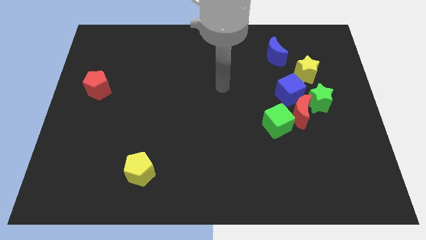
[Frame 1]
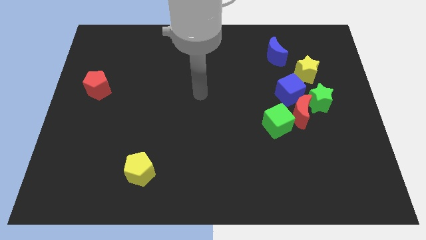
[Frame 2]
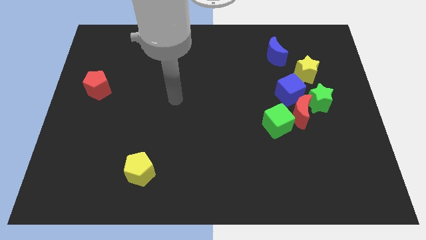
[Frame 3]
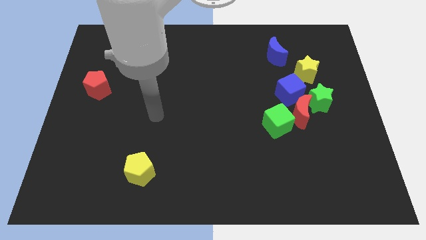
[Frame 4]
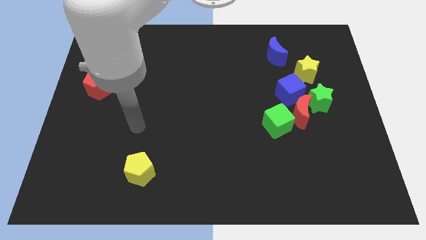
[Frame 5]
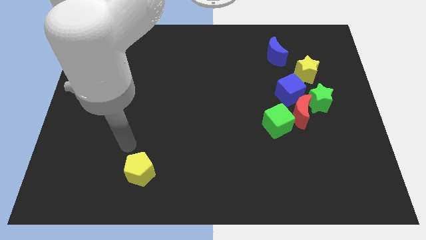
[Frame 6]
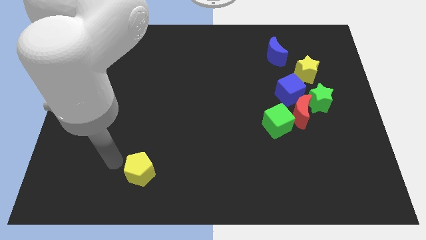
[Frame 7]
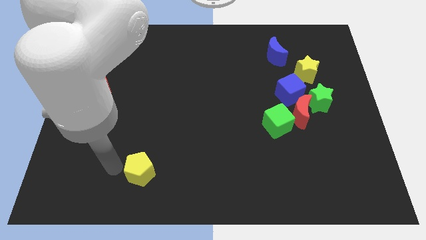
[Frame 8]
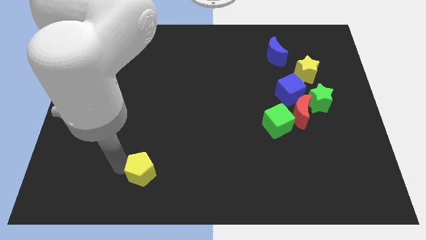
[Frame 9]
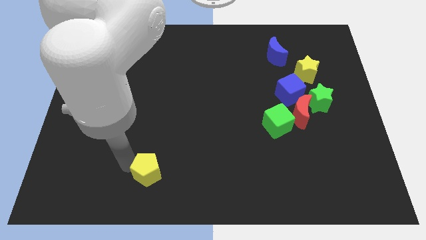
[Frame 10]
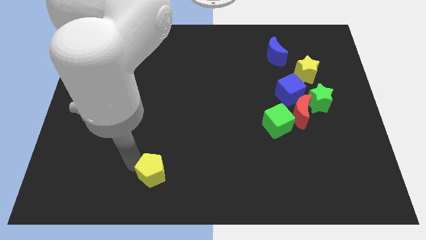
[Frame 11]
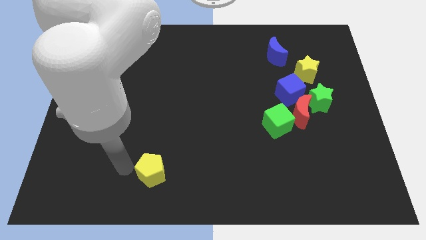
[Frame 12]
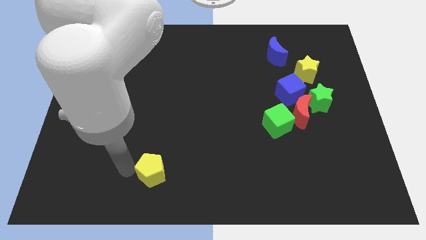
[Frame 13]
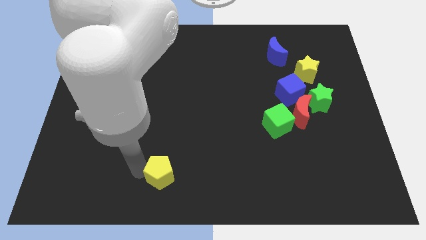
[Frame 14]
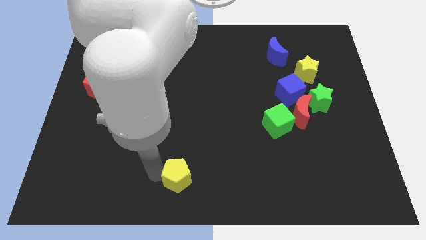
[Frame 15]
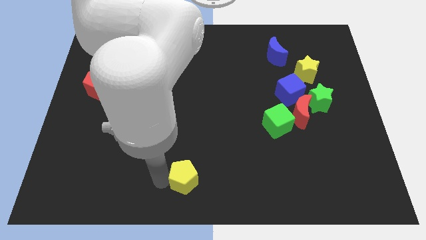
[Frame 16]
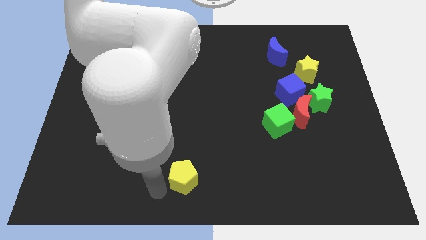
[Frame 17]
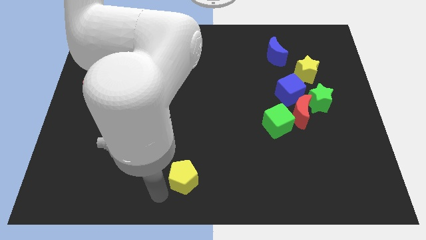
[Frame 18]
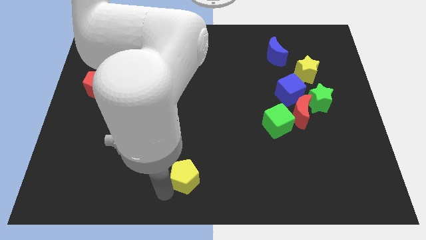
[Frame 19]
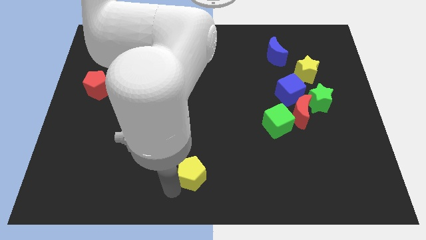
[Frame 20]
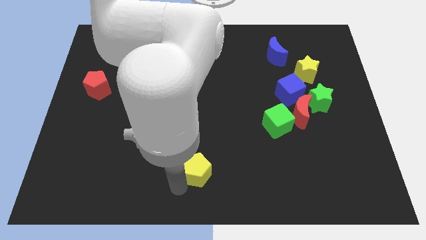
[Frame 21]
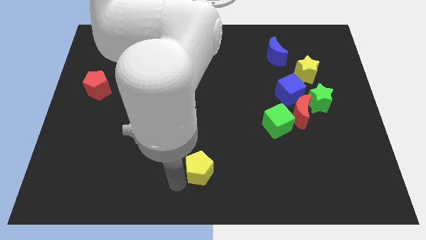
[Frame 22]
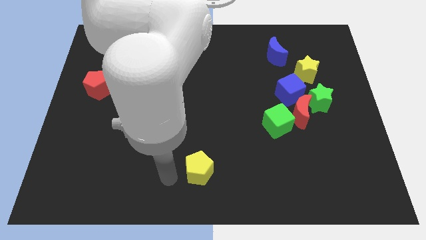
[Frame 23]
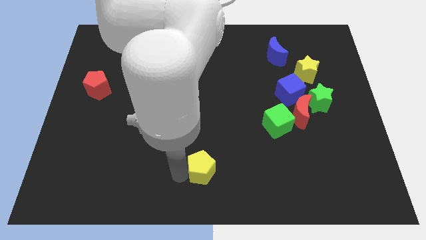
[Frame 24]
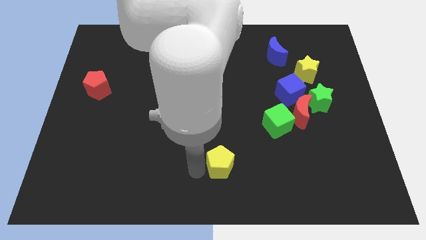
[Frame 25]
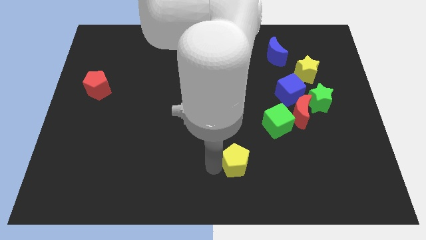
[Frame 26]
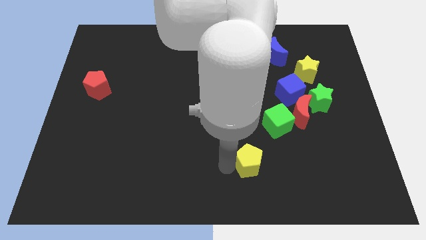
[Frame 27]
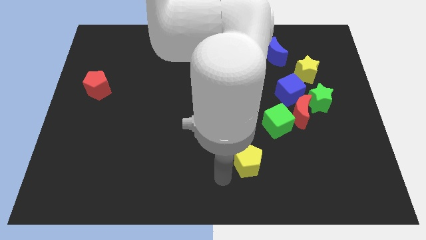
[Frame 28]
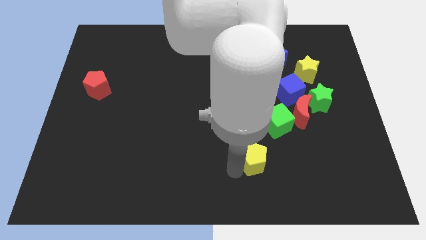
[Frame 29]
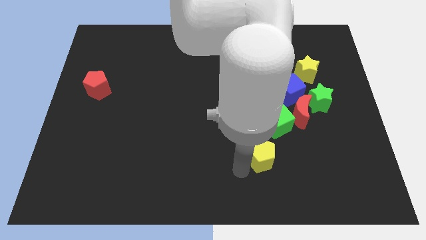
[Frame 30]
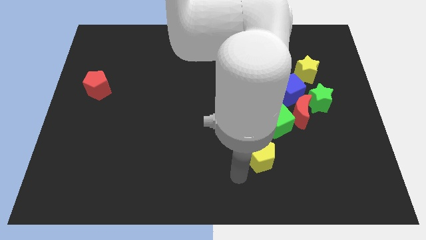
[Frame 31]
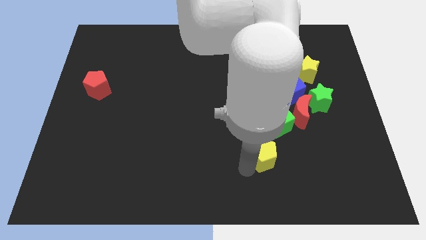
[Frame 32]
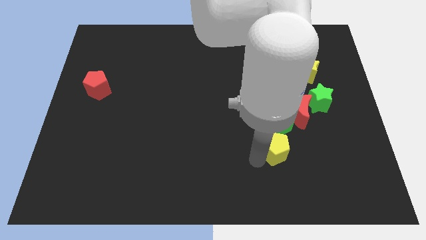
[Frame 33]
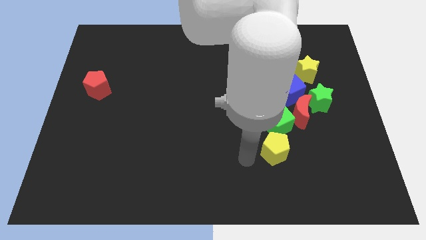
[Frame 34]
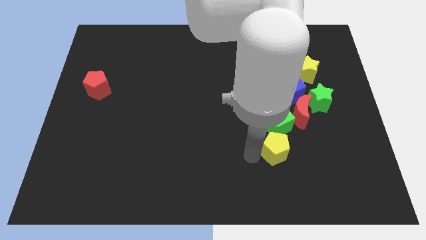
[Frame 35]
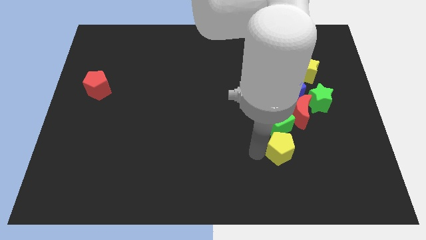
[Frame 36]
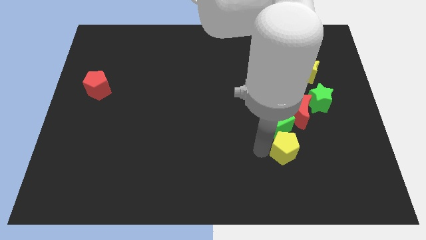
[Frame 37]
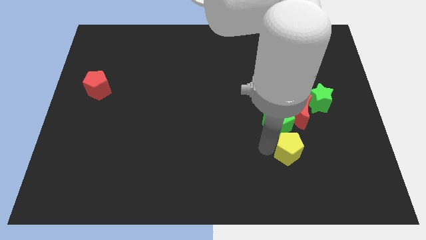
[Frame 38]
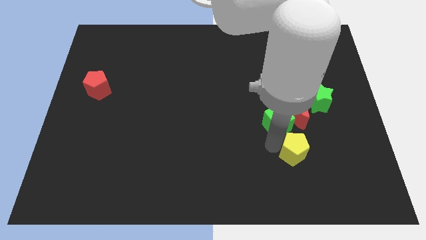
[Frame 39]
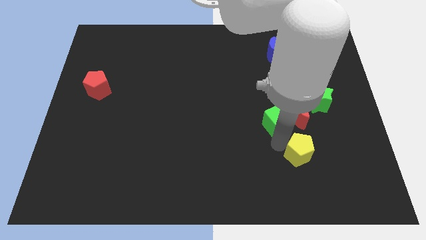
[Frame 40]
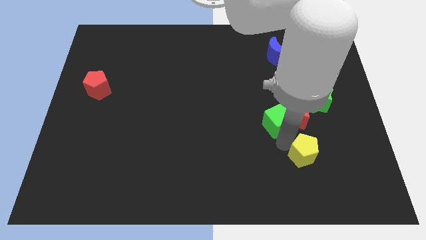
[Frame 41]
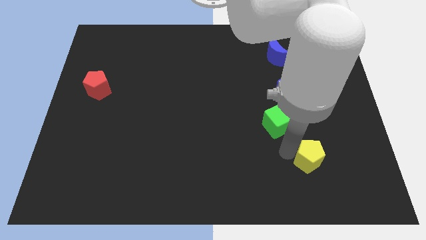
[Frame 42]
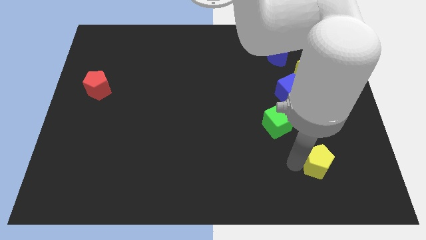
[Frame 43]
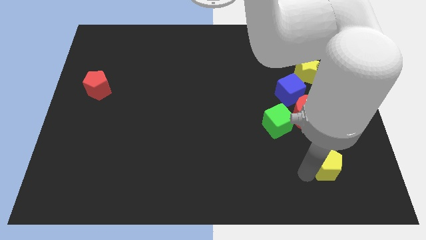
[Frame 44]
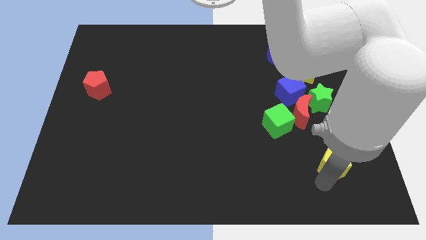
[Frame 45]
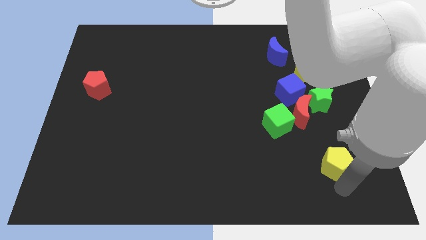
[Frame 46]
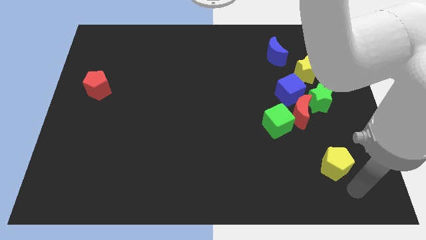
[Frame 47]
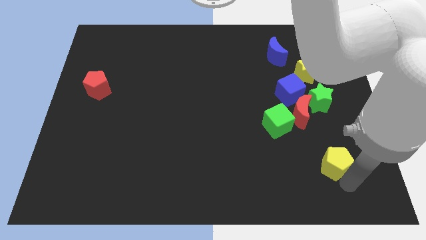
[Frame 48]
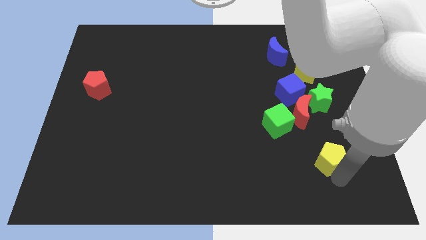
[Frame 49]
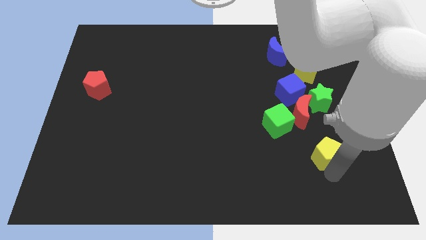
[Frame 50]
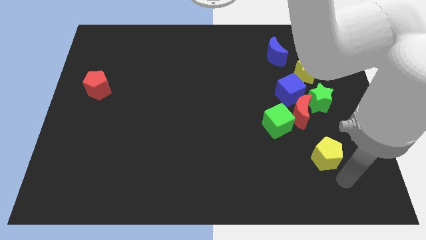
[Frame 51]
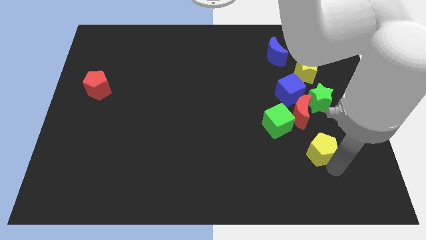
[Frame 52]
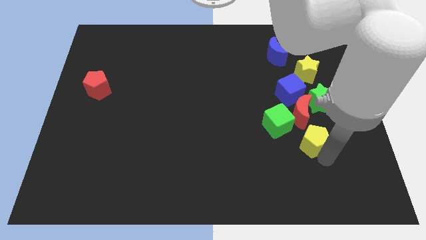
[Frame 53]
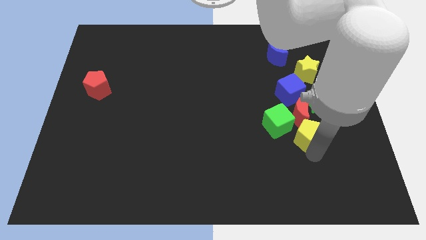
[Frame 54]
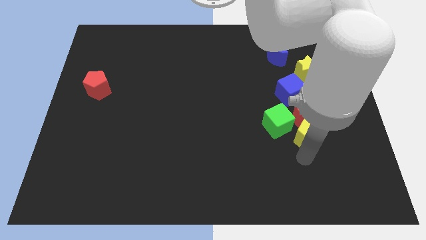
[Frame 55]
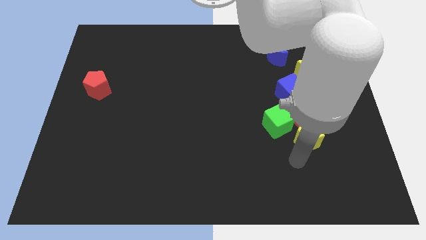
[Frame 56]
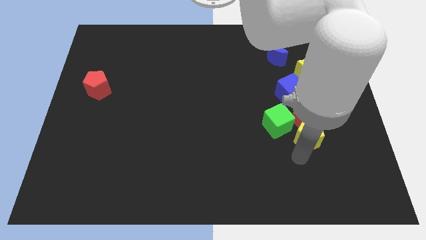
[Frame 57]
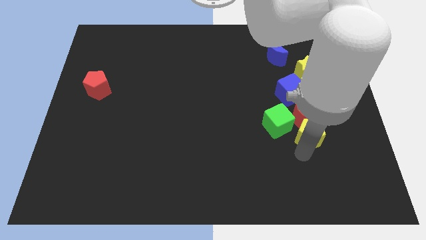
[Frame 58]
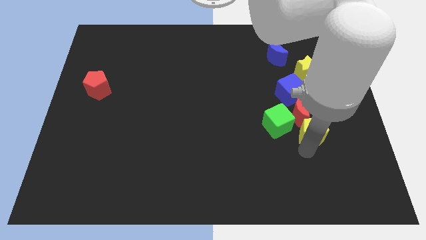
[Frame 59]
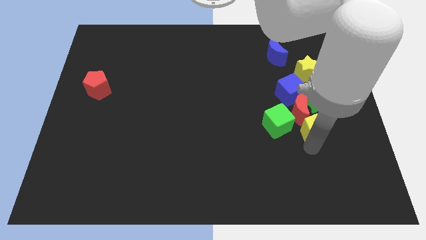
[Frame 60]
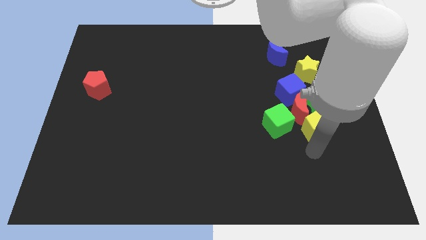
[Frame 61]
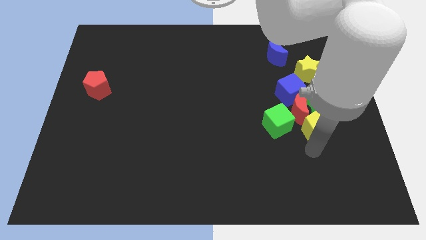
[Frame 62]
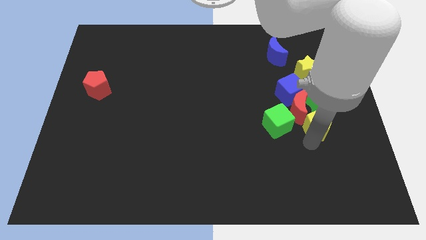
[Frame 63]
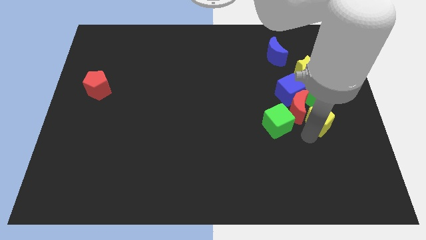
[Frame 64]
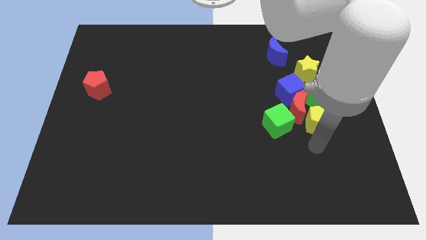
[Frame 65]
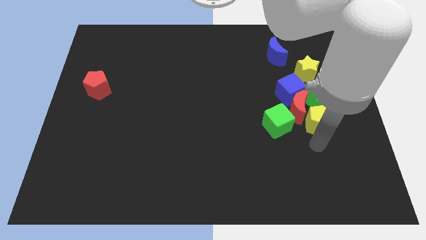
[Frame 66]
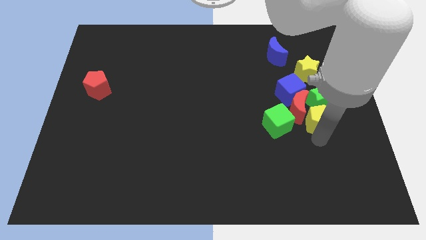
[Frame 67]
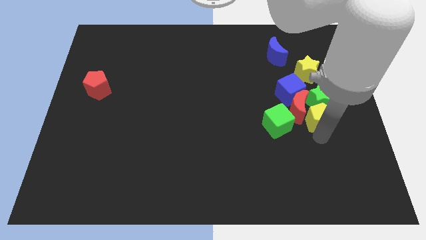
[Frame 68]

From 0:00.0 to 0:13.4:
push the yellow pentagon to the green star

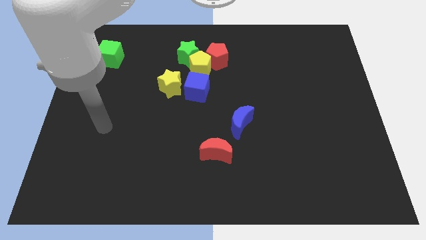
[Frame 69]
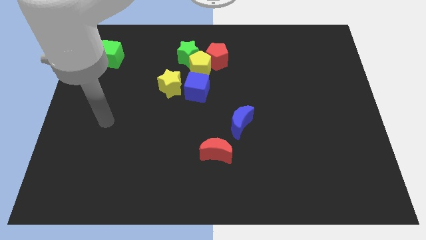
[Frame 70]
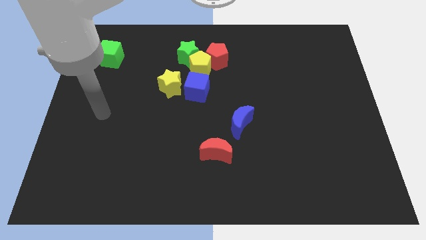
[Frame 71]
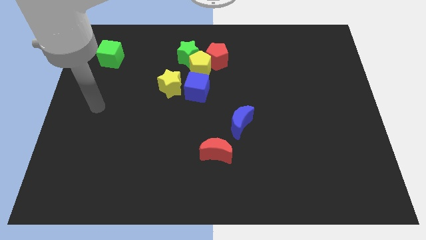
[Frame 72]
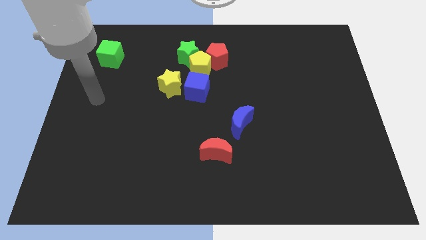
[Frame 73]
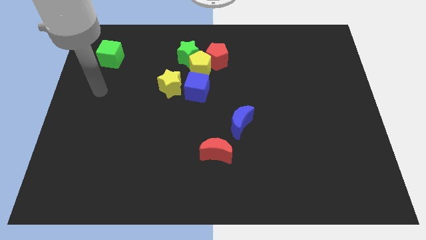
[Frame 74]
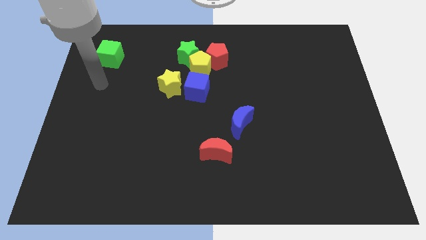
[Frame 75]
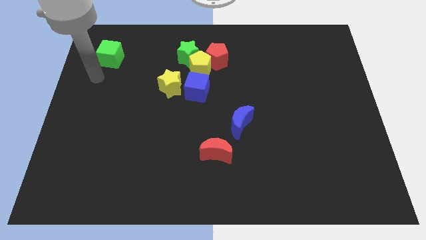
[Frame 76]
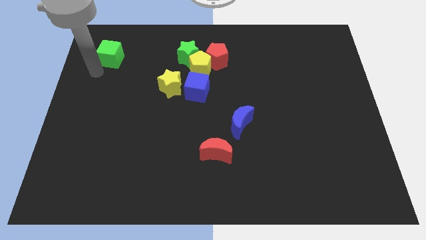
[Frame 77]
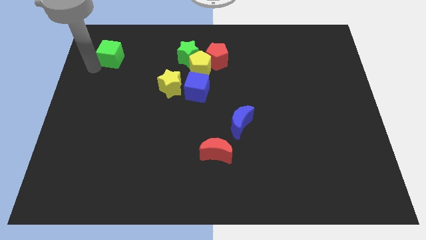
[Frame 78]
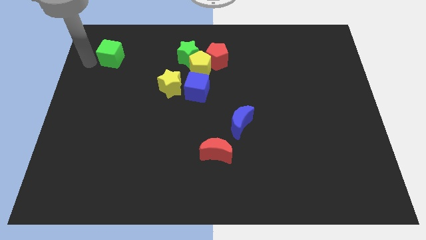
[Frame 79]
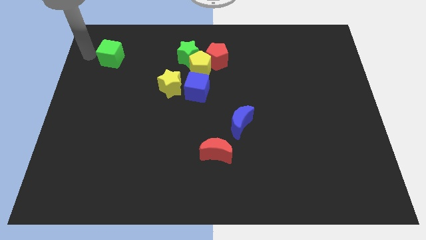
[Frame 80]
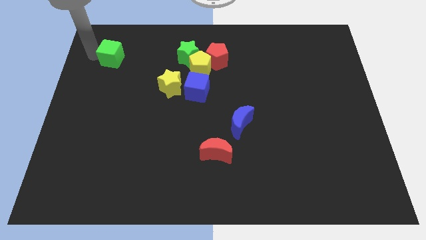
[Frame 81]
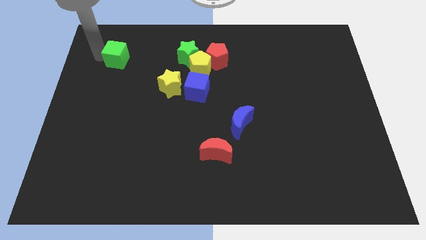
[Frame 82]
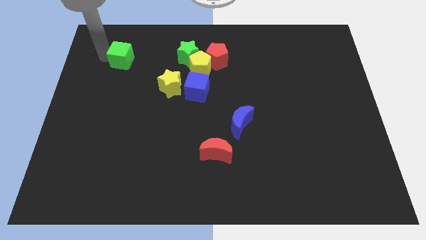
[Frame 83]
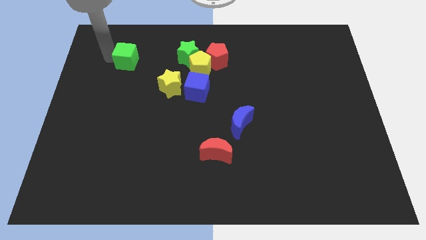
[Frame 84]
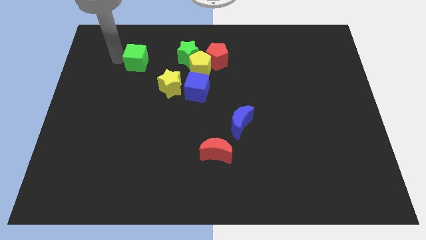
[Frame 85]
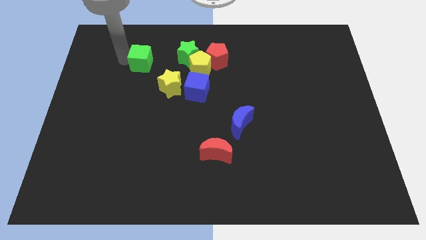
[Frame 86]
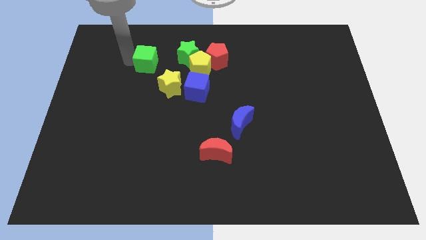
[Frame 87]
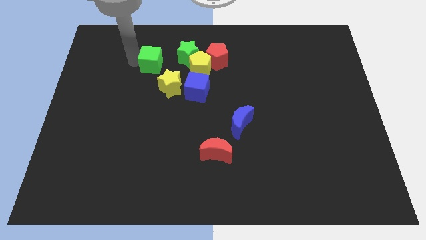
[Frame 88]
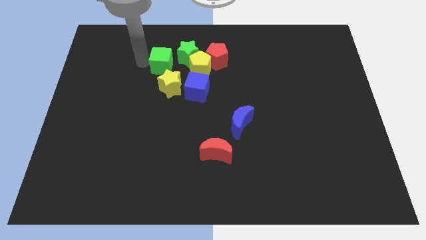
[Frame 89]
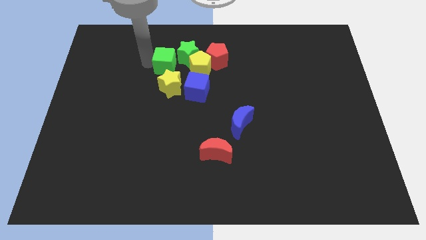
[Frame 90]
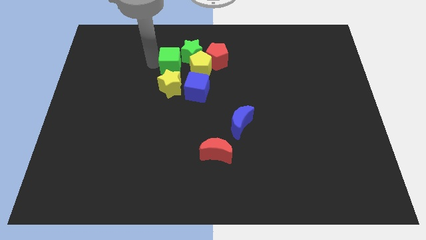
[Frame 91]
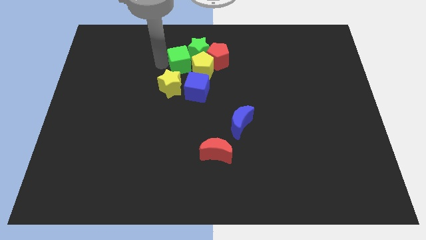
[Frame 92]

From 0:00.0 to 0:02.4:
move the green cube to the yellow pentagon
